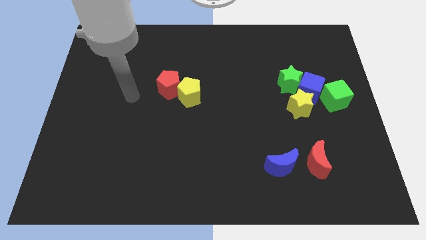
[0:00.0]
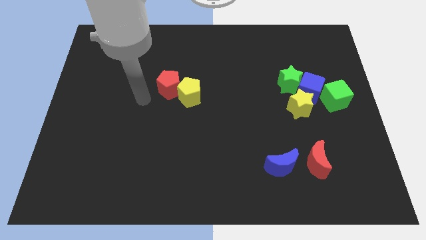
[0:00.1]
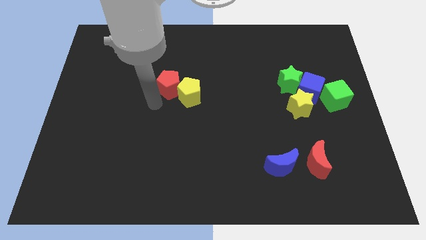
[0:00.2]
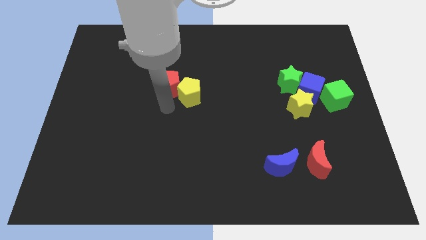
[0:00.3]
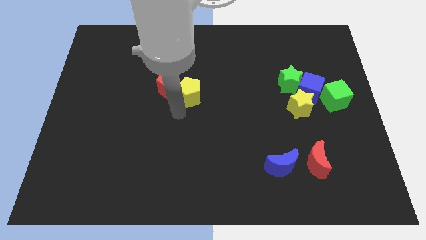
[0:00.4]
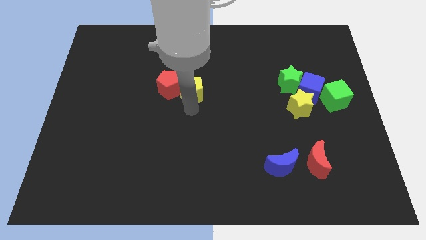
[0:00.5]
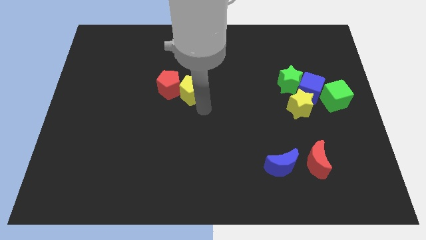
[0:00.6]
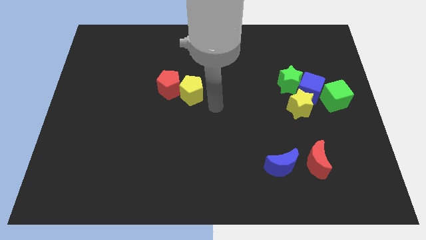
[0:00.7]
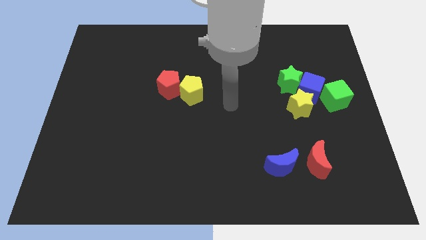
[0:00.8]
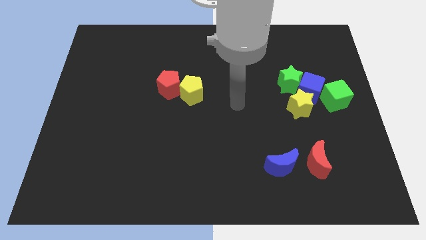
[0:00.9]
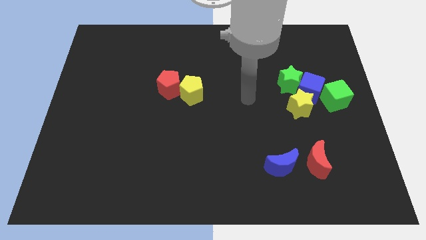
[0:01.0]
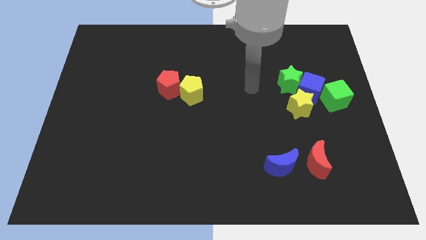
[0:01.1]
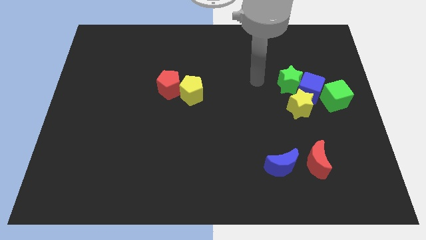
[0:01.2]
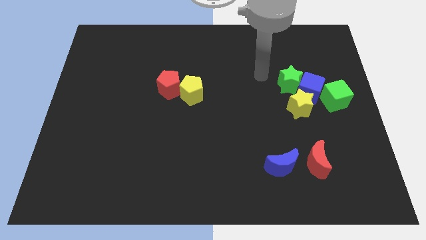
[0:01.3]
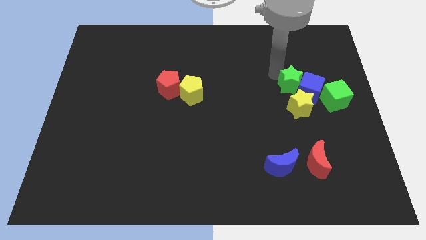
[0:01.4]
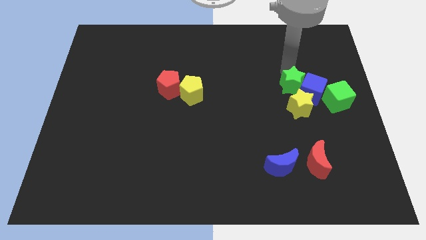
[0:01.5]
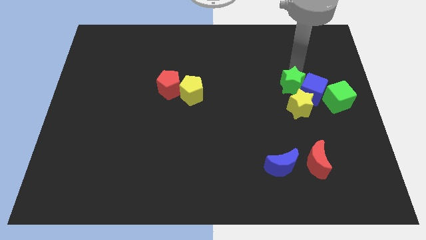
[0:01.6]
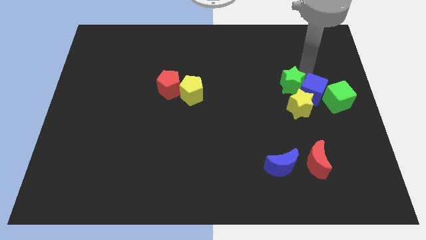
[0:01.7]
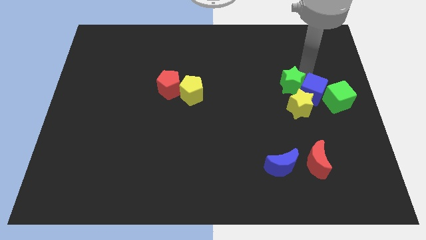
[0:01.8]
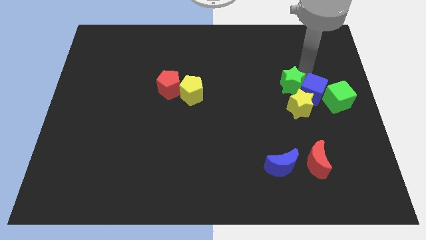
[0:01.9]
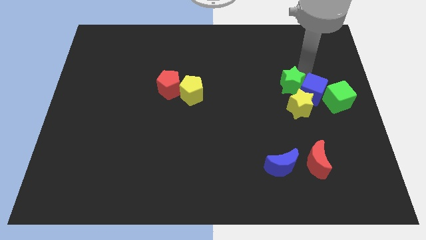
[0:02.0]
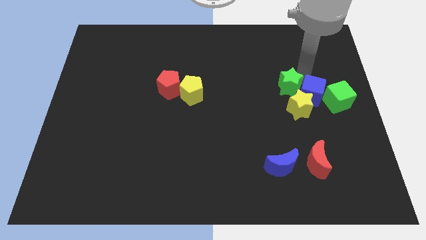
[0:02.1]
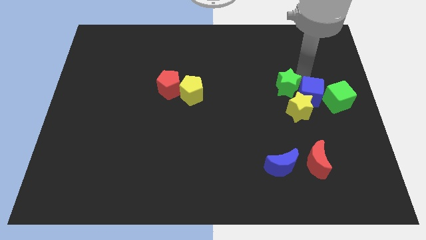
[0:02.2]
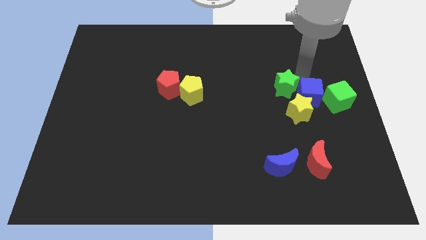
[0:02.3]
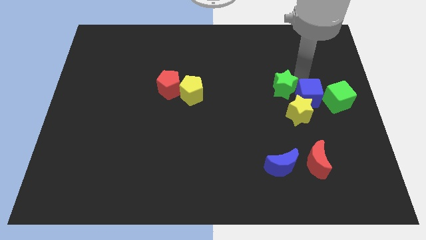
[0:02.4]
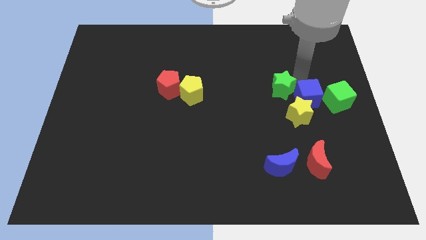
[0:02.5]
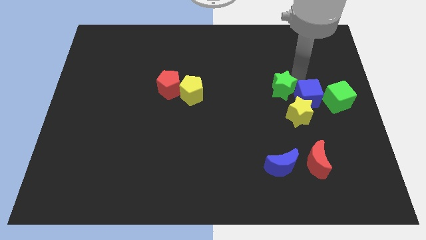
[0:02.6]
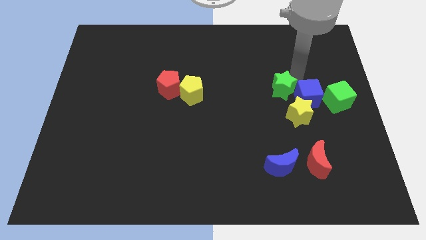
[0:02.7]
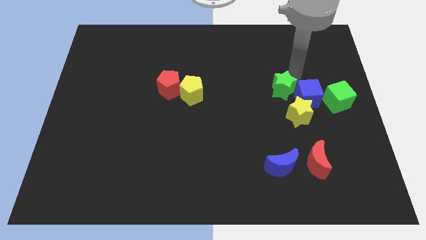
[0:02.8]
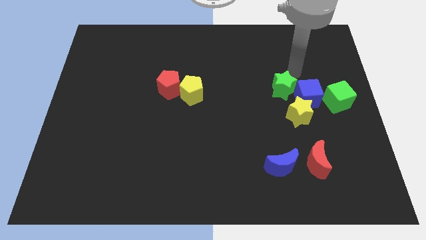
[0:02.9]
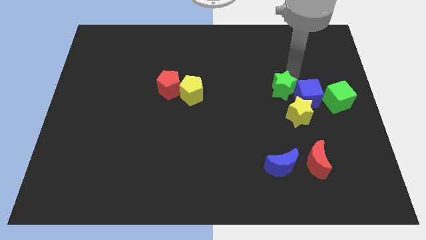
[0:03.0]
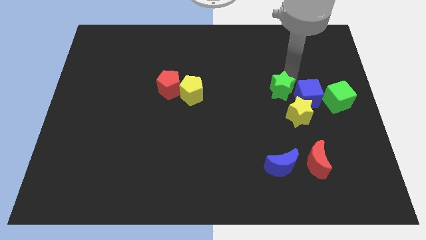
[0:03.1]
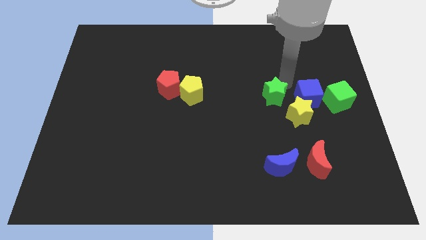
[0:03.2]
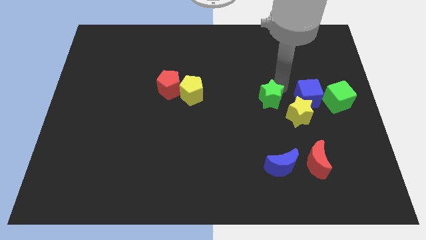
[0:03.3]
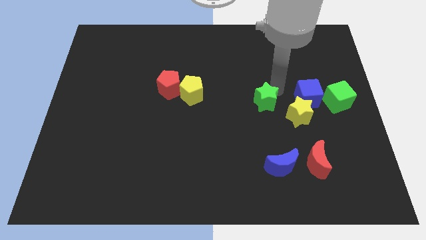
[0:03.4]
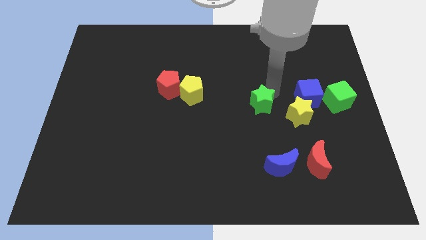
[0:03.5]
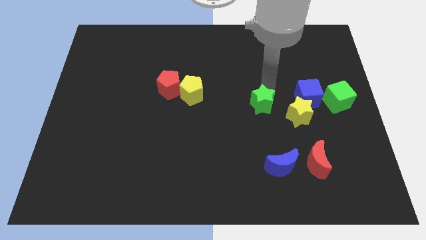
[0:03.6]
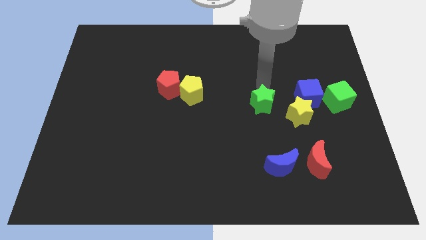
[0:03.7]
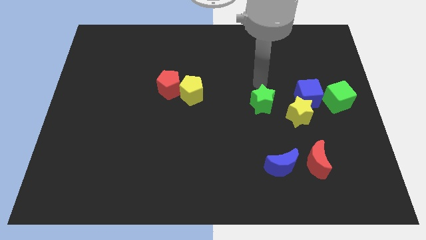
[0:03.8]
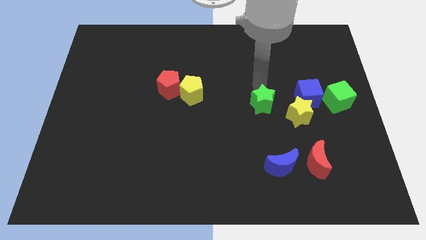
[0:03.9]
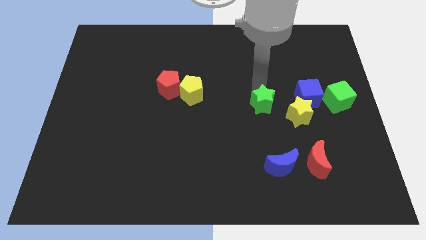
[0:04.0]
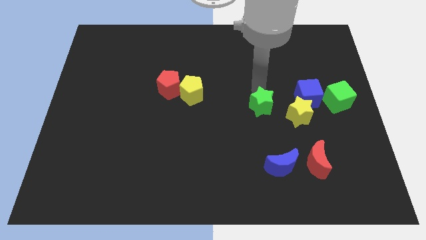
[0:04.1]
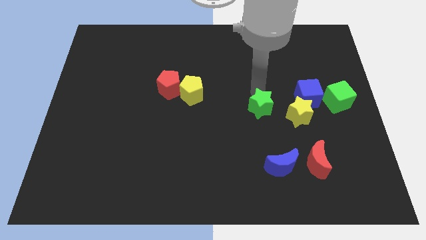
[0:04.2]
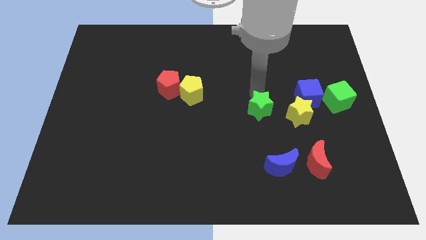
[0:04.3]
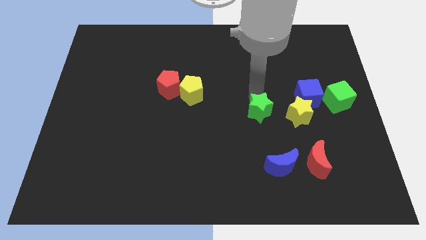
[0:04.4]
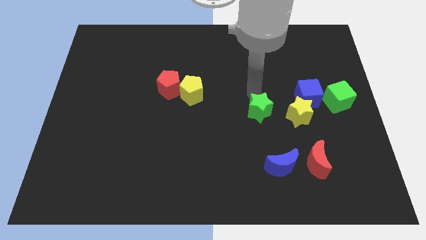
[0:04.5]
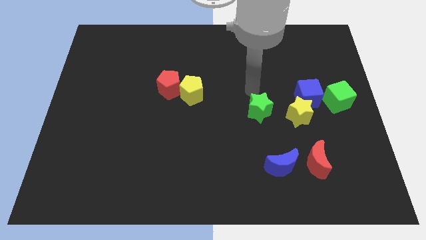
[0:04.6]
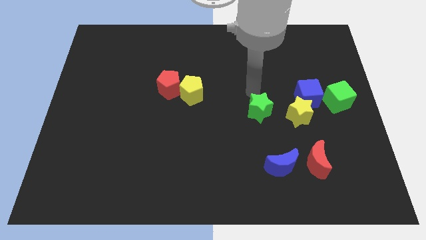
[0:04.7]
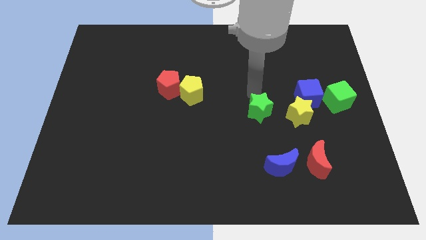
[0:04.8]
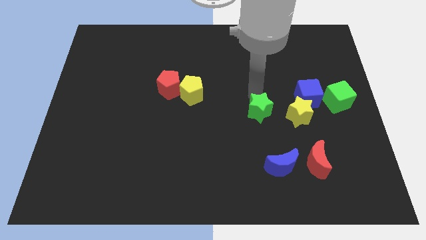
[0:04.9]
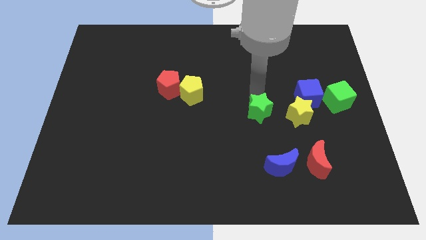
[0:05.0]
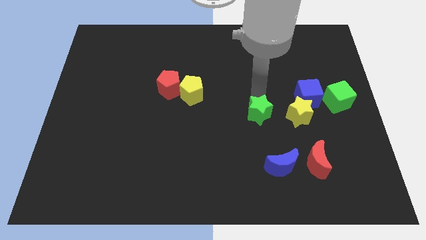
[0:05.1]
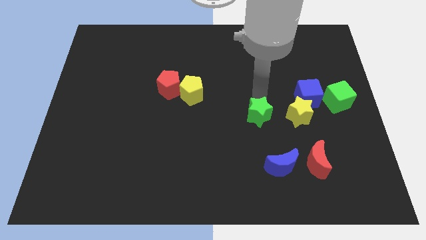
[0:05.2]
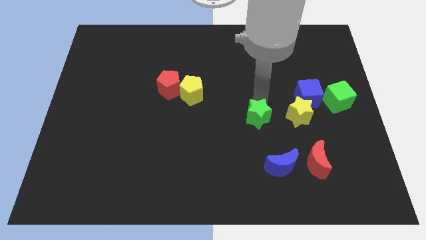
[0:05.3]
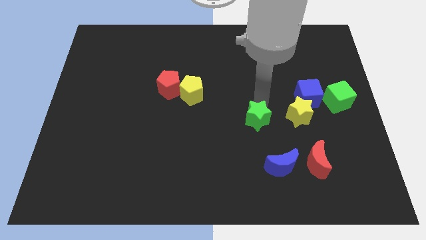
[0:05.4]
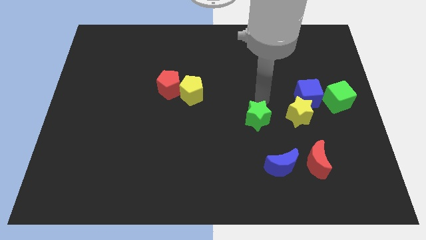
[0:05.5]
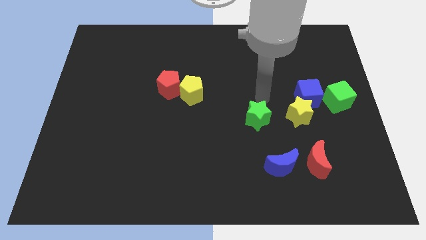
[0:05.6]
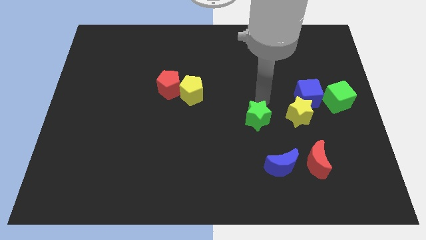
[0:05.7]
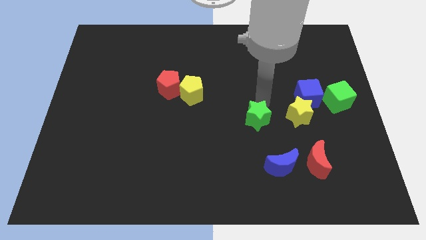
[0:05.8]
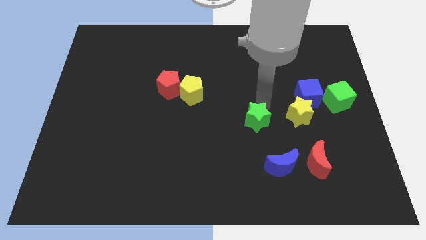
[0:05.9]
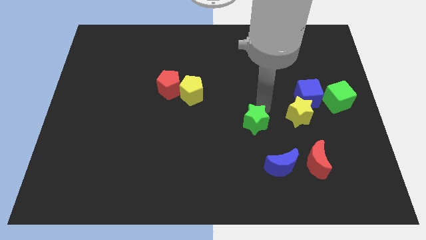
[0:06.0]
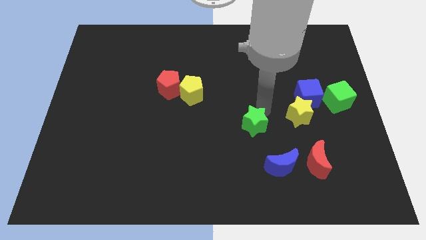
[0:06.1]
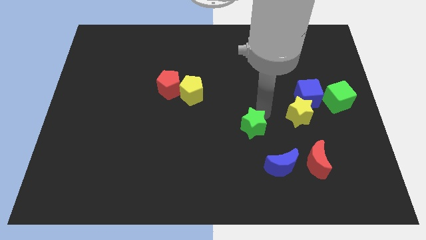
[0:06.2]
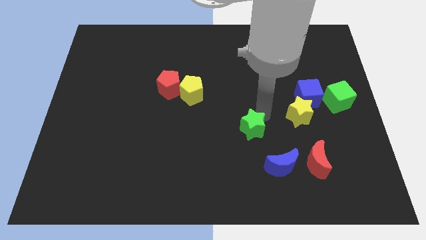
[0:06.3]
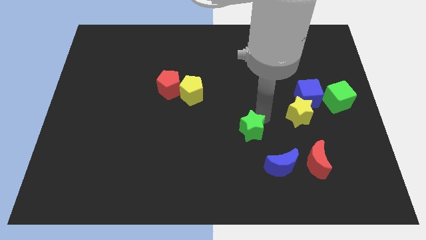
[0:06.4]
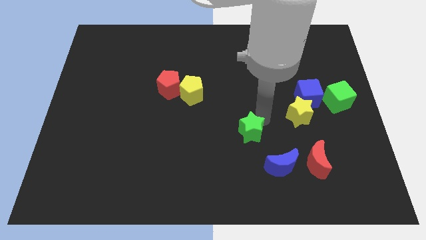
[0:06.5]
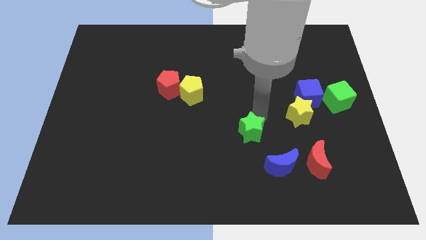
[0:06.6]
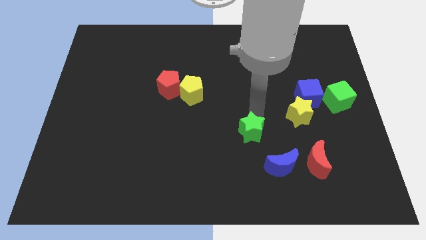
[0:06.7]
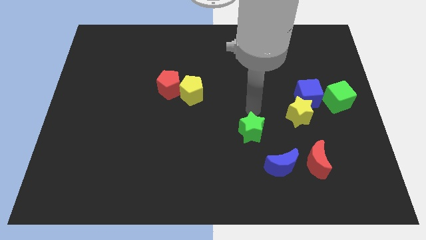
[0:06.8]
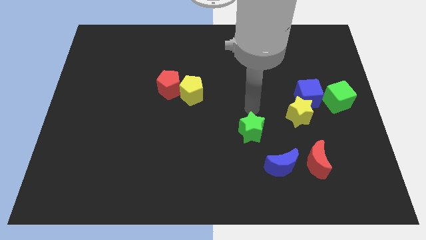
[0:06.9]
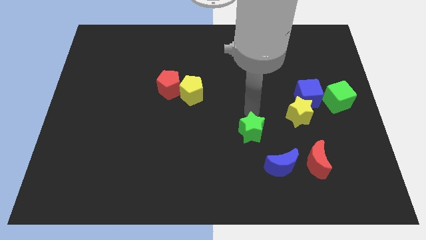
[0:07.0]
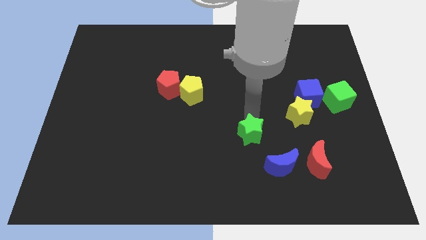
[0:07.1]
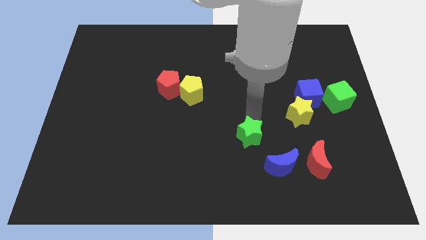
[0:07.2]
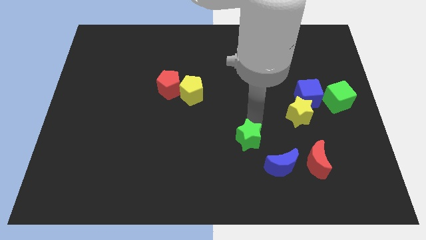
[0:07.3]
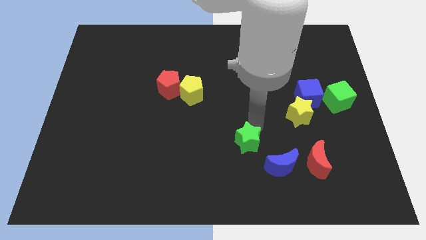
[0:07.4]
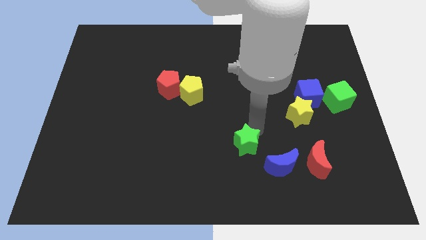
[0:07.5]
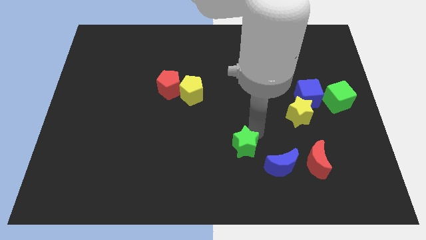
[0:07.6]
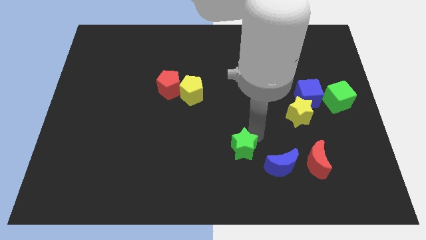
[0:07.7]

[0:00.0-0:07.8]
put the green star to the left side of the blue moon
